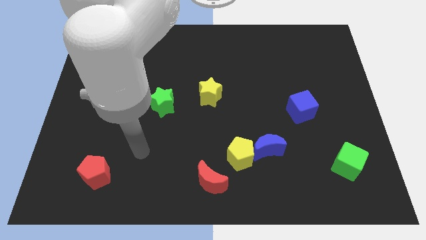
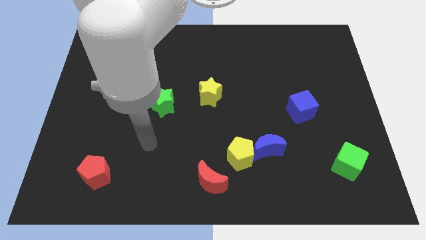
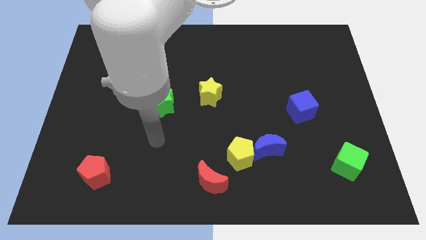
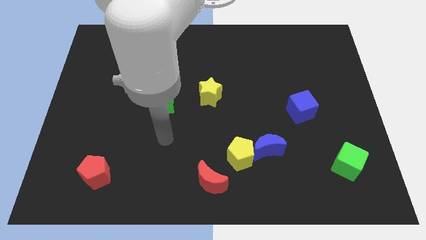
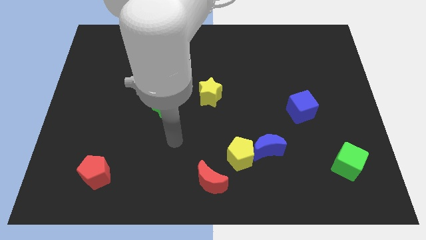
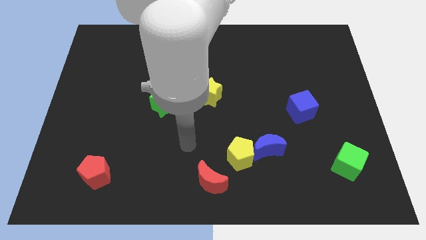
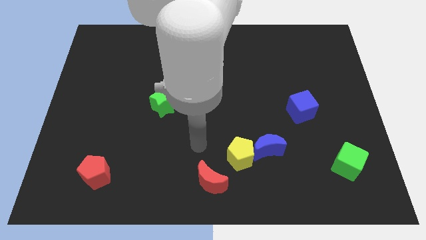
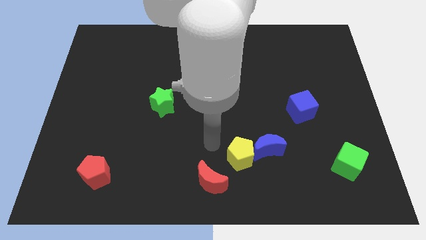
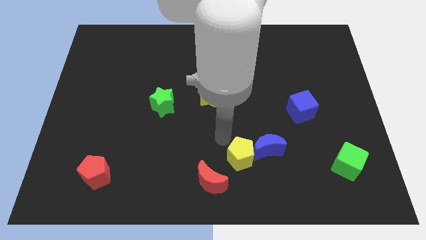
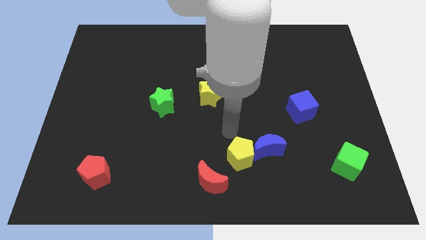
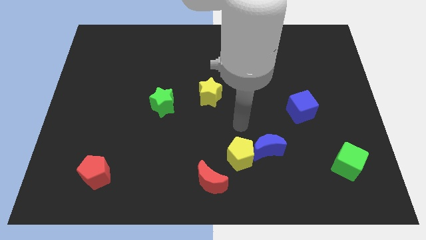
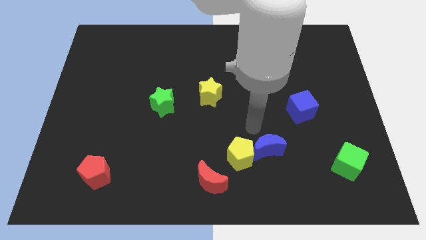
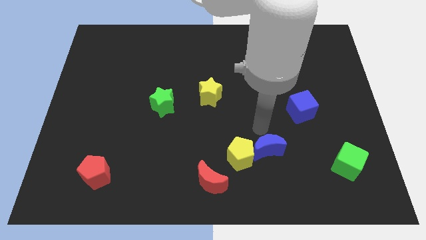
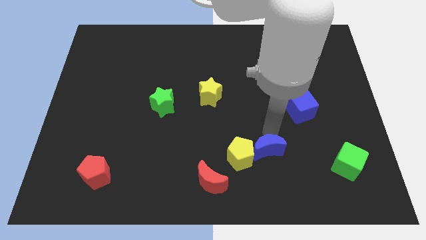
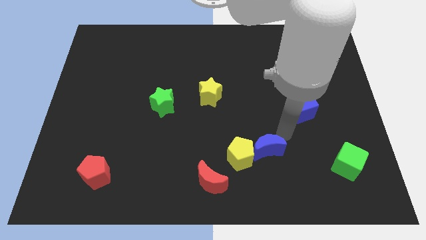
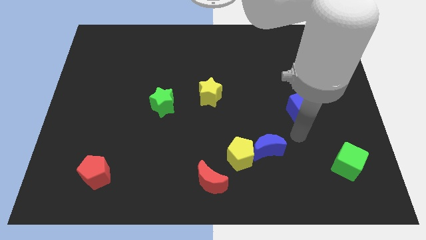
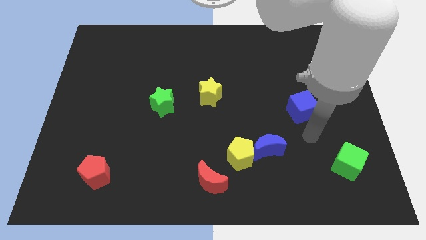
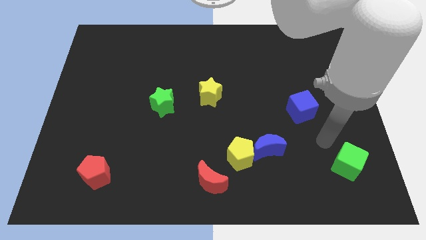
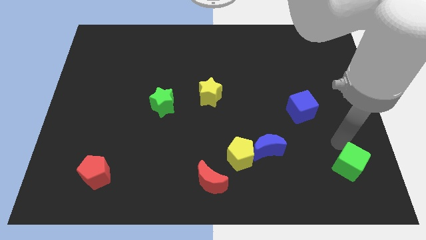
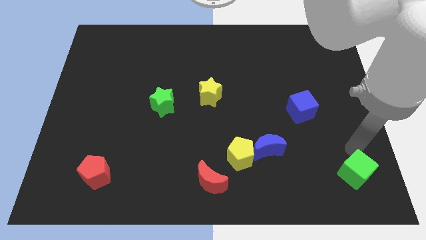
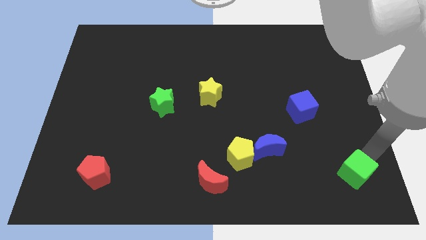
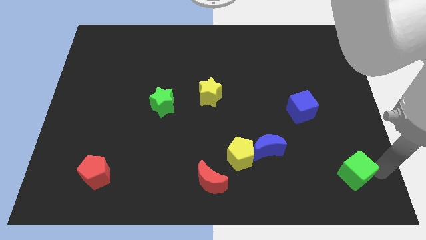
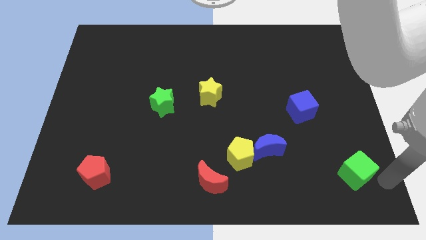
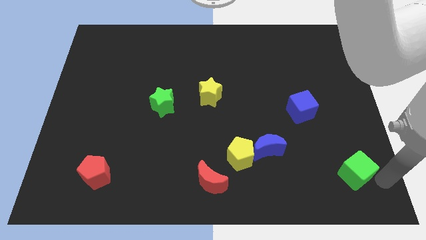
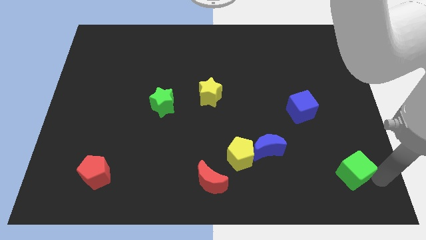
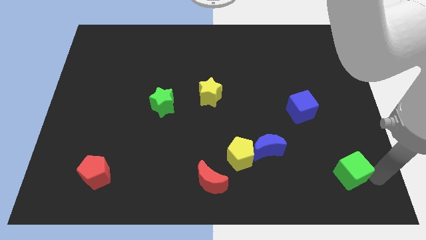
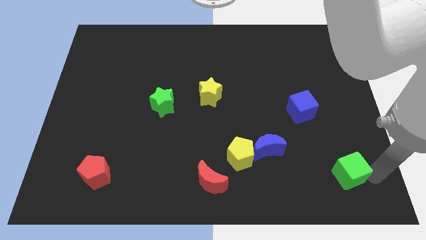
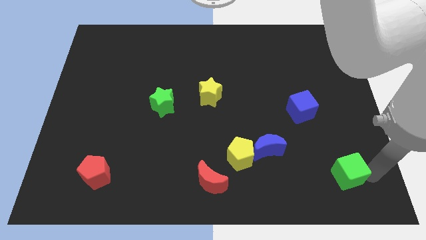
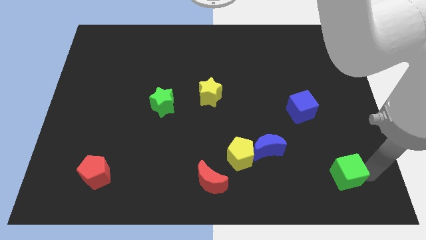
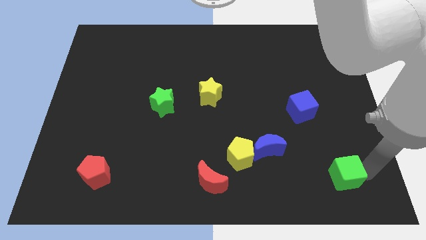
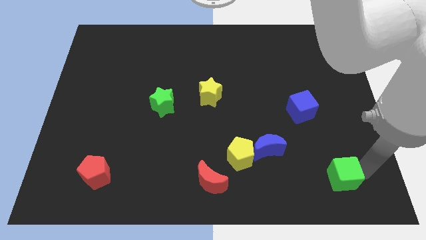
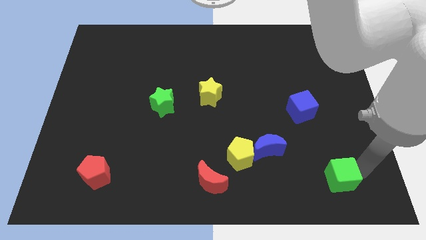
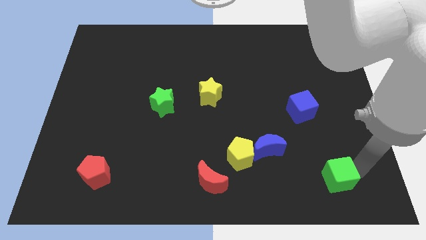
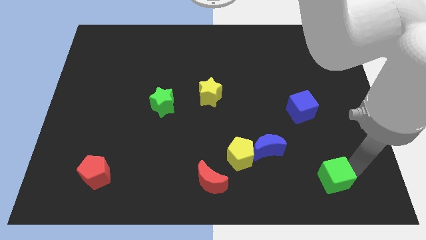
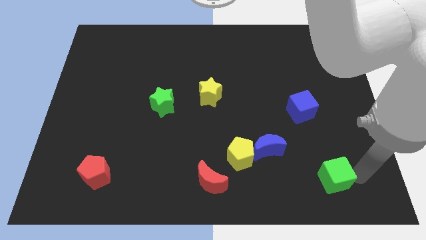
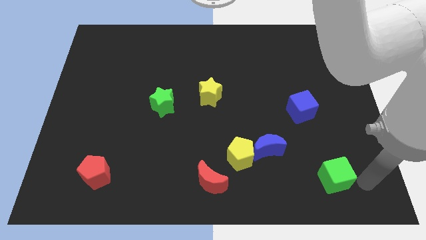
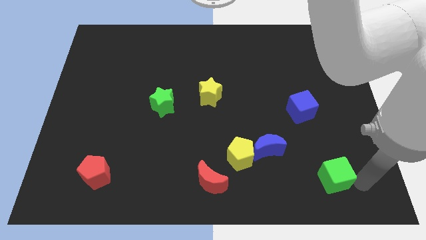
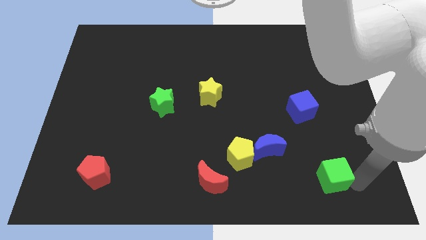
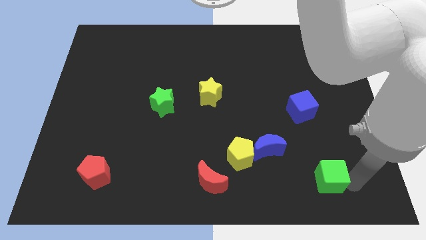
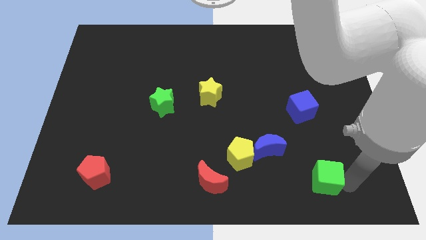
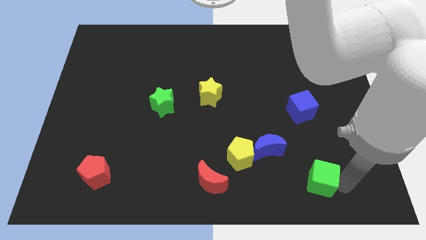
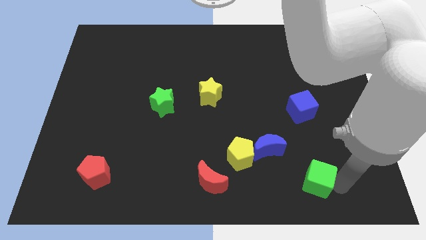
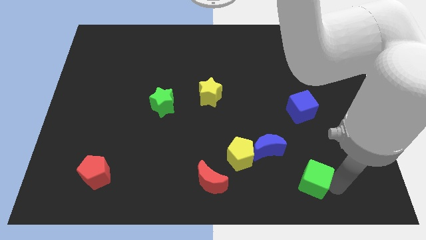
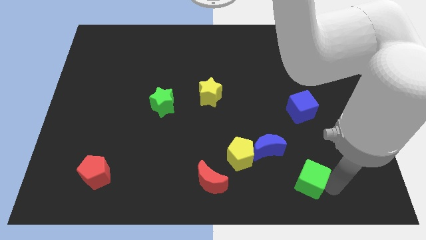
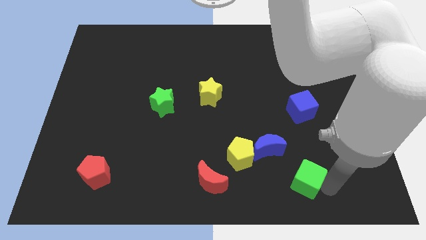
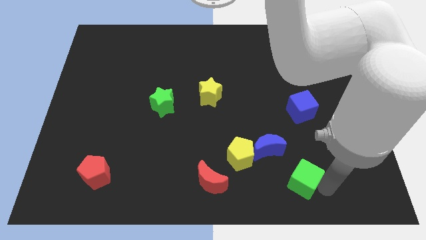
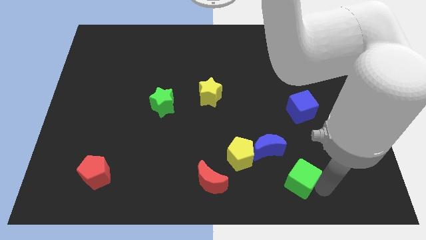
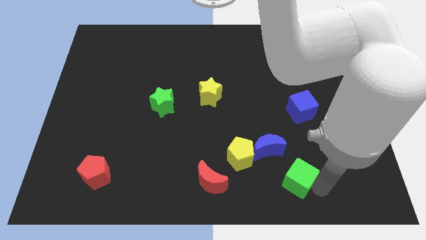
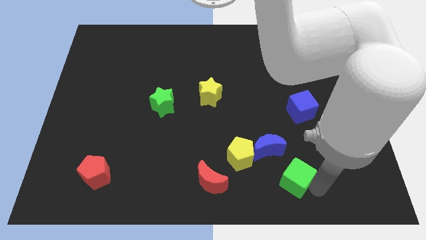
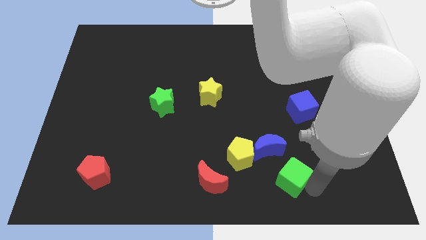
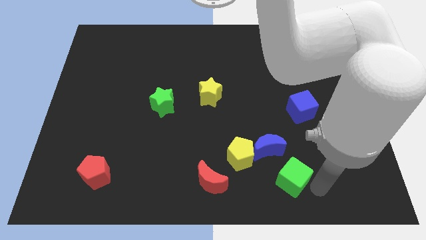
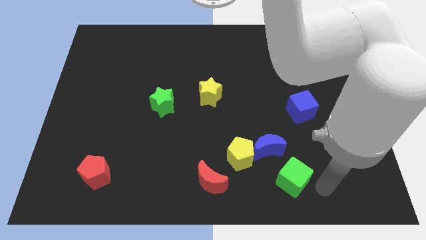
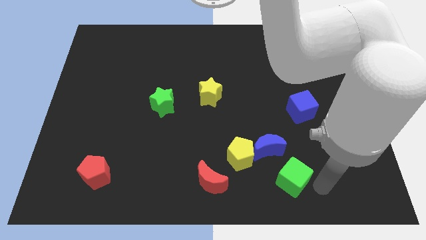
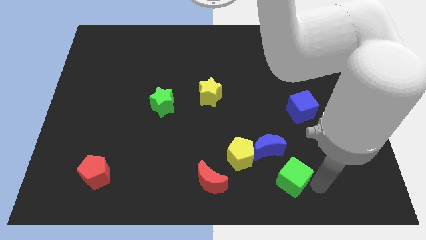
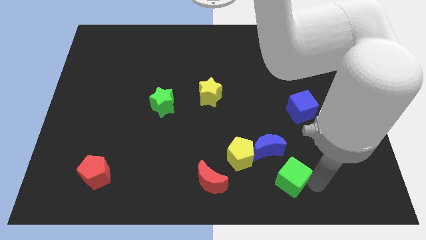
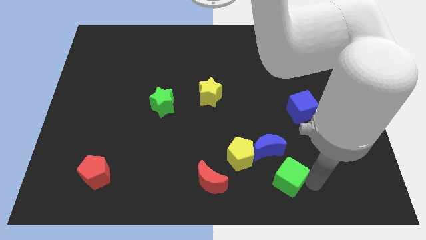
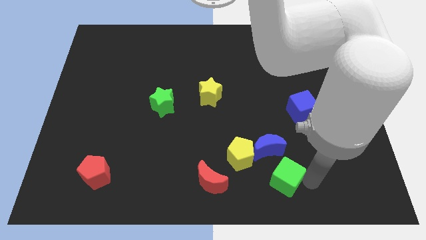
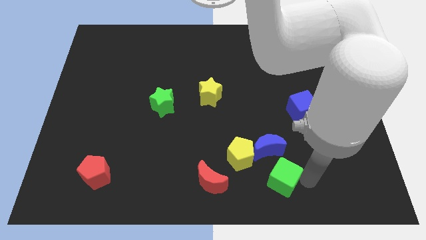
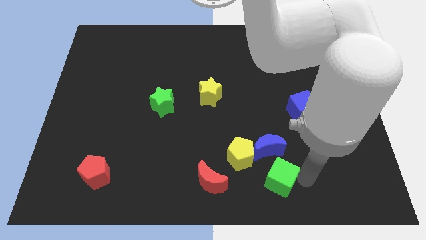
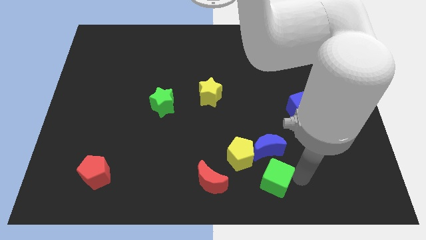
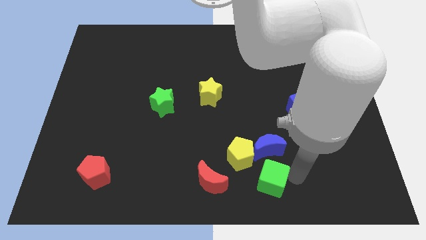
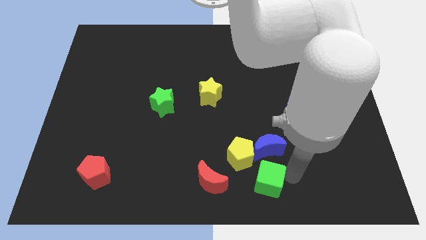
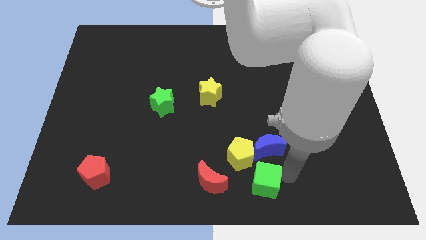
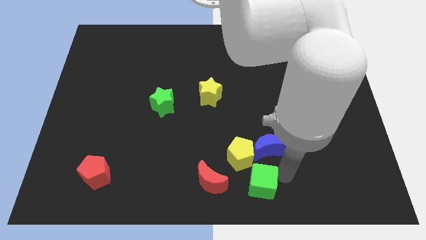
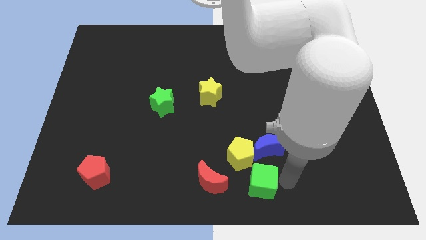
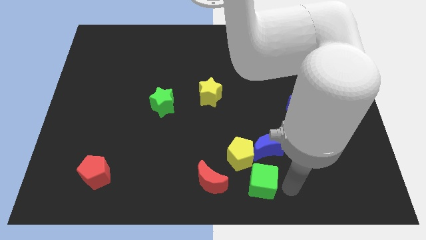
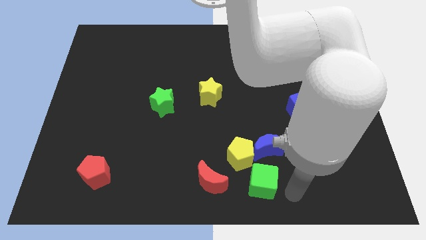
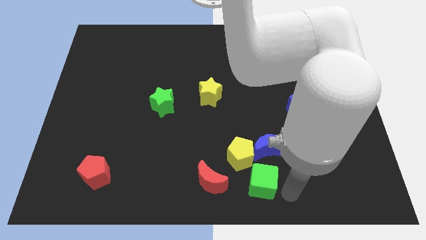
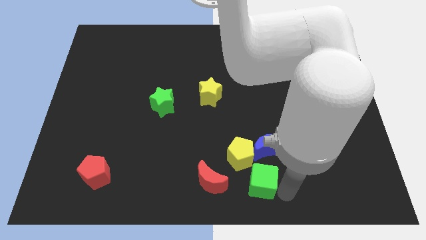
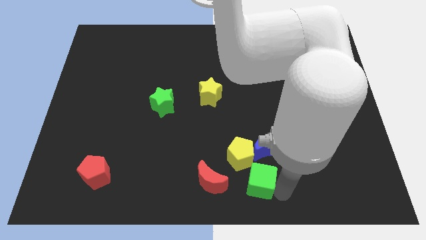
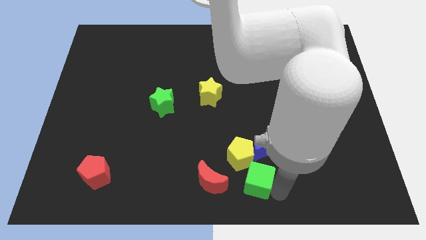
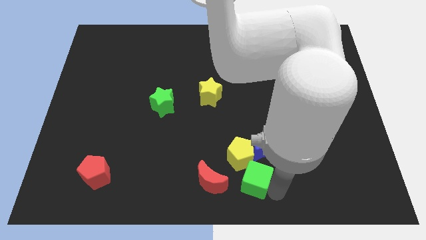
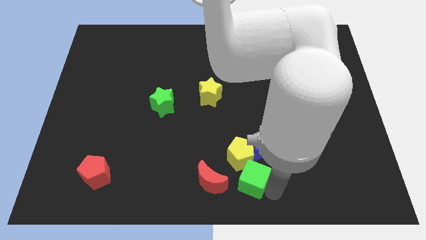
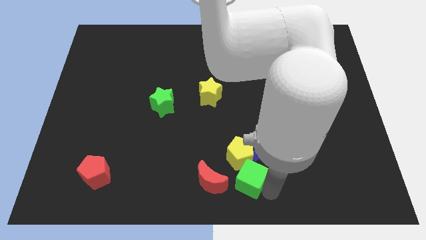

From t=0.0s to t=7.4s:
push the green cube to the left

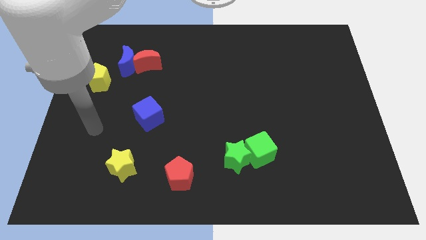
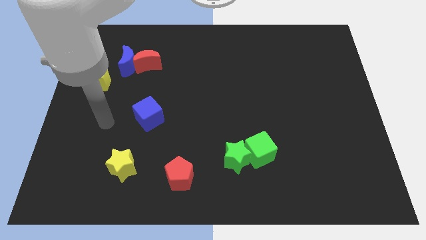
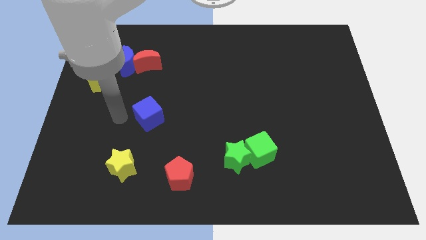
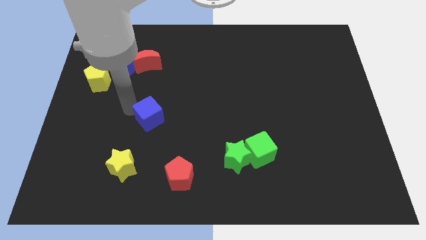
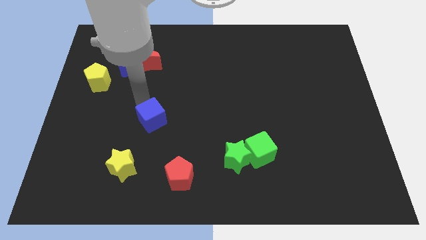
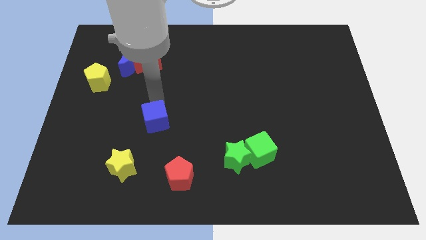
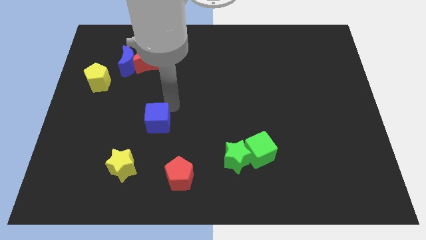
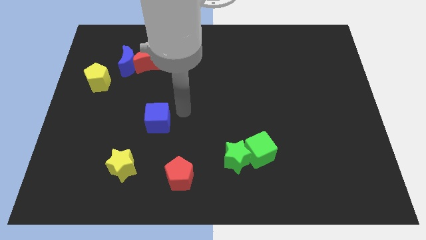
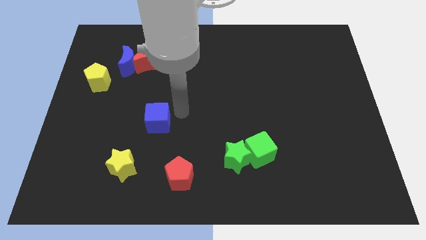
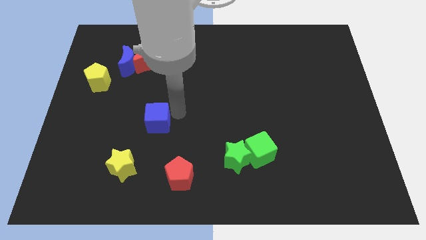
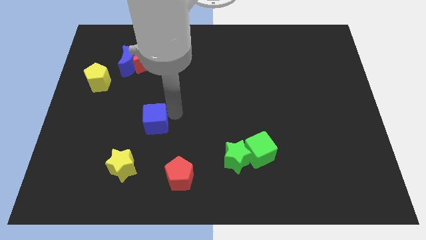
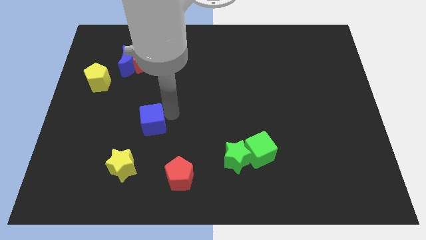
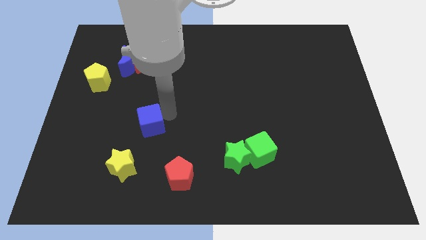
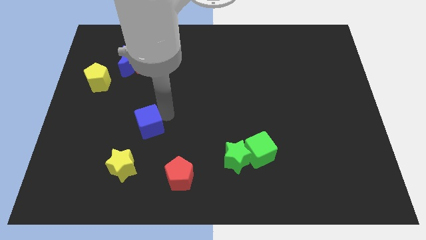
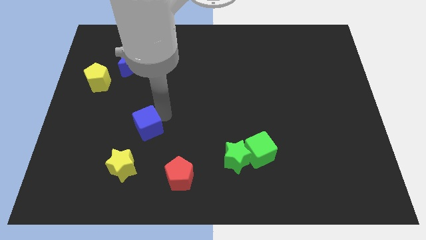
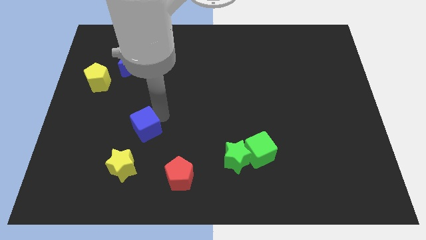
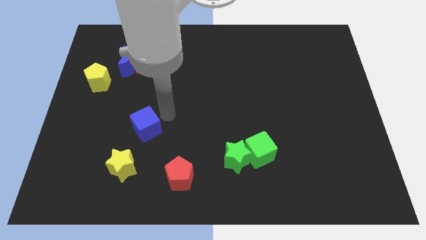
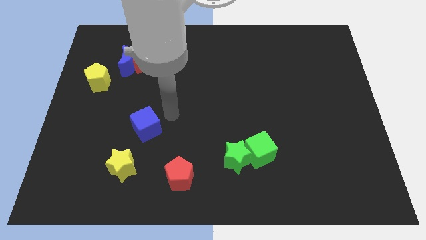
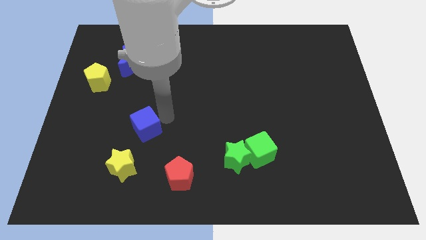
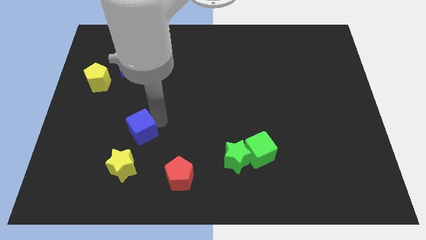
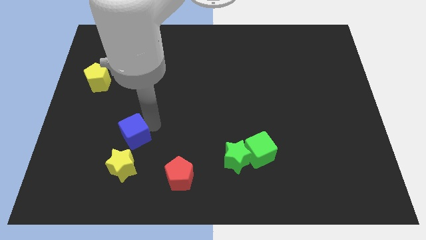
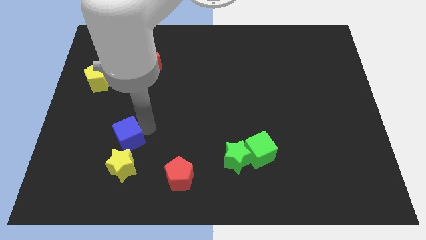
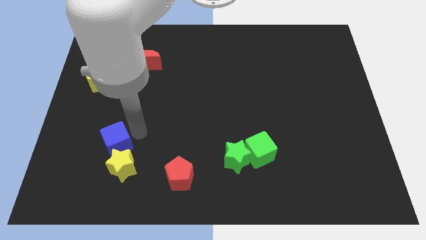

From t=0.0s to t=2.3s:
move the blue cube diagonally downwards and to the left somewhat
